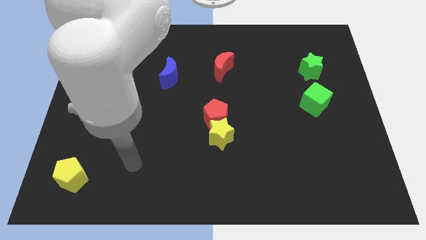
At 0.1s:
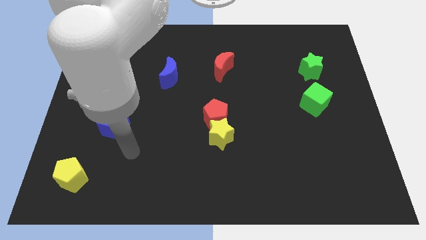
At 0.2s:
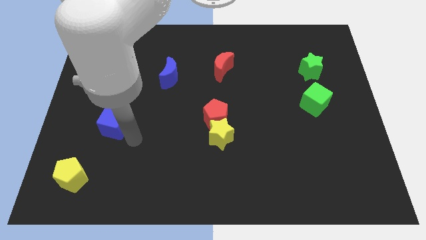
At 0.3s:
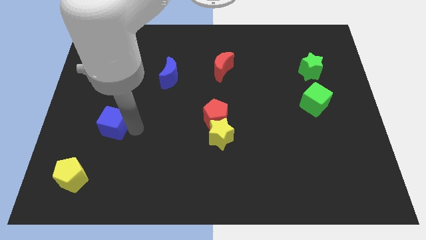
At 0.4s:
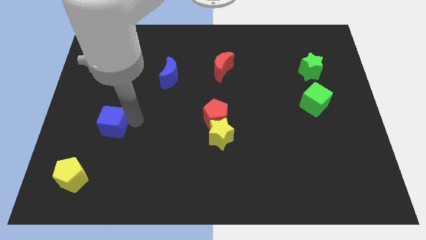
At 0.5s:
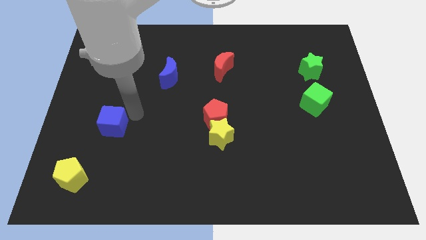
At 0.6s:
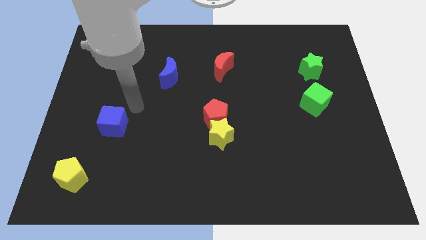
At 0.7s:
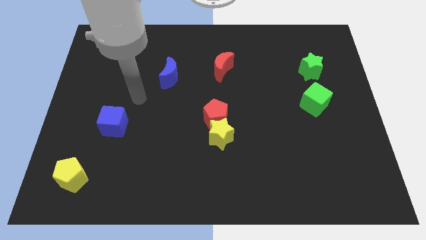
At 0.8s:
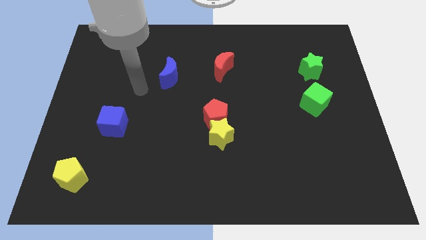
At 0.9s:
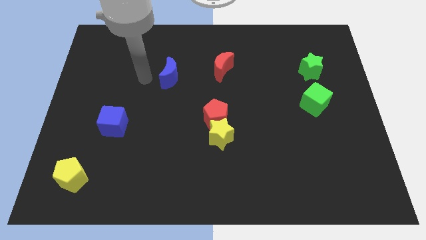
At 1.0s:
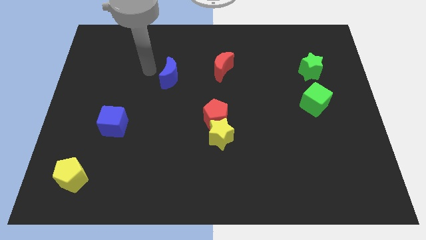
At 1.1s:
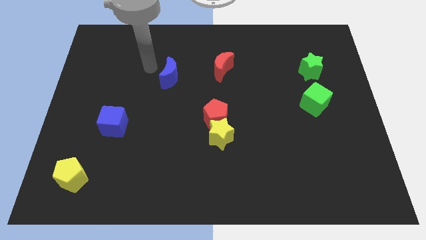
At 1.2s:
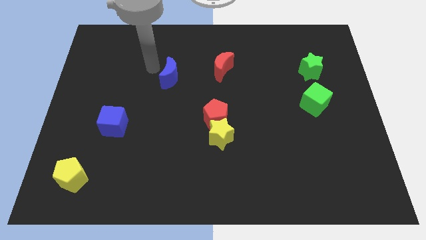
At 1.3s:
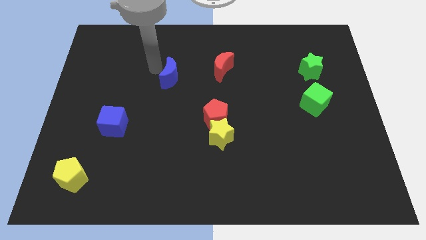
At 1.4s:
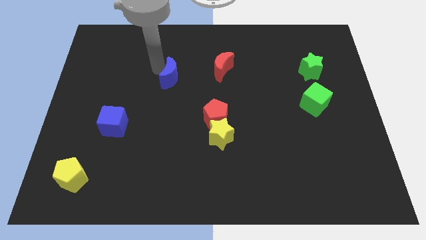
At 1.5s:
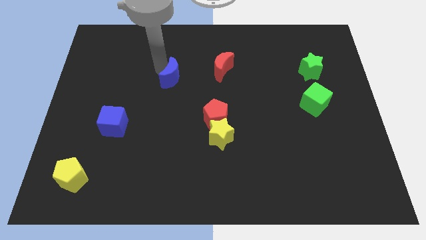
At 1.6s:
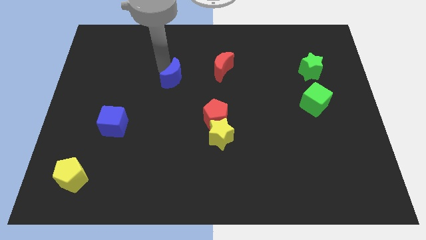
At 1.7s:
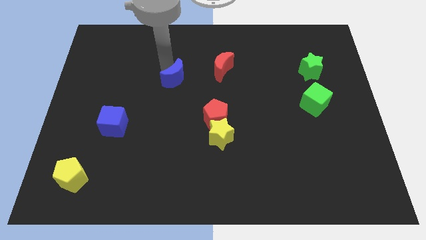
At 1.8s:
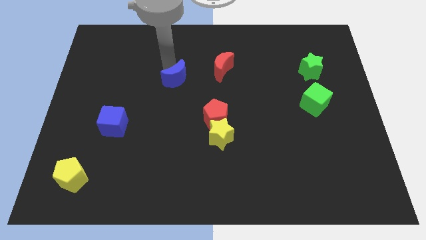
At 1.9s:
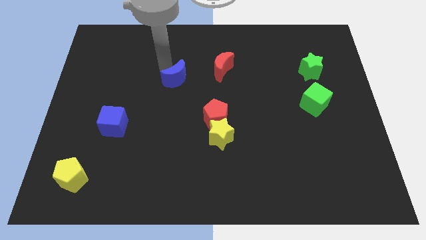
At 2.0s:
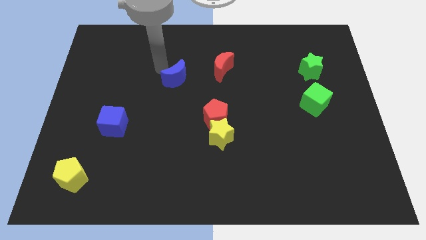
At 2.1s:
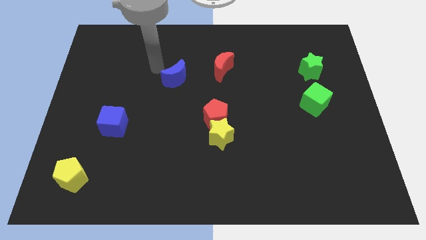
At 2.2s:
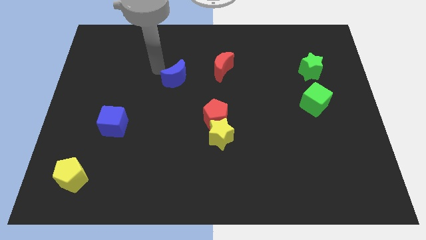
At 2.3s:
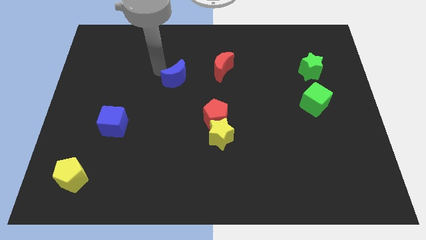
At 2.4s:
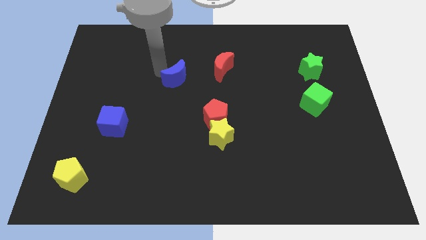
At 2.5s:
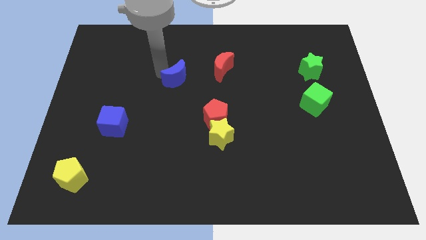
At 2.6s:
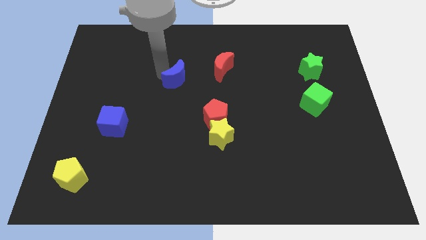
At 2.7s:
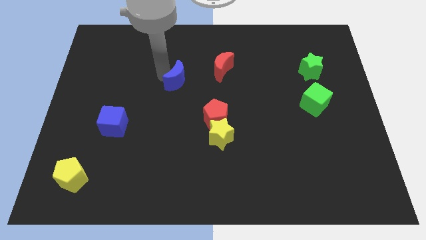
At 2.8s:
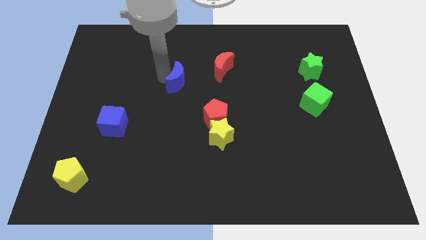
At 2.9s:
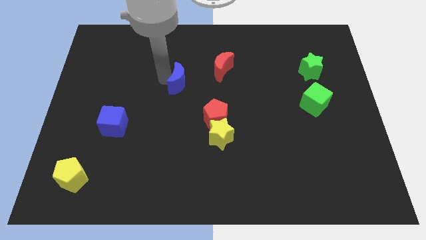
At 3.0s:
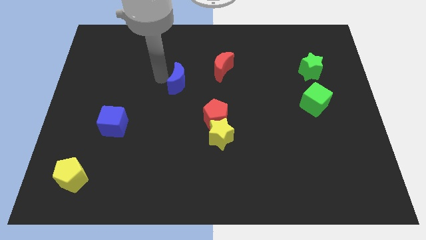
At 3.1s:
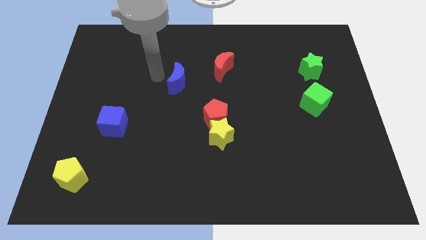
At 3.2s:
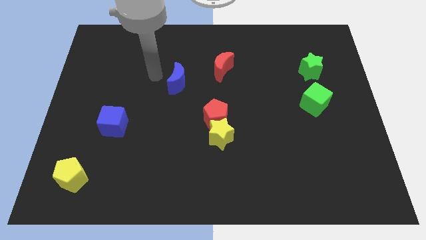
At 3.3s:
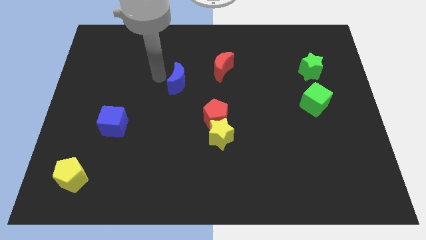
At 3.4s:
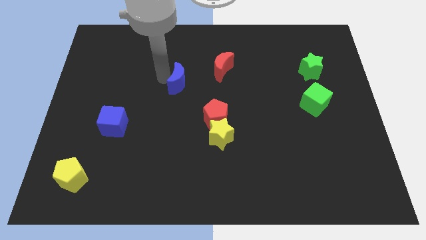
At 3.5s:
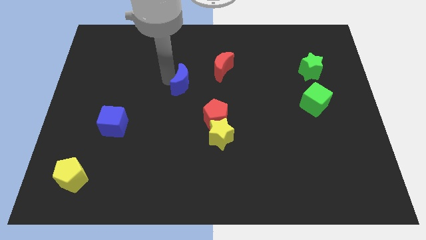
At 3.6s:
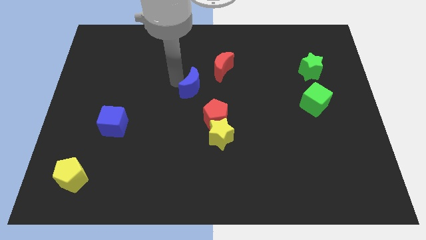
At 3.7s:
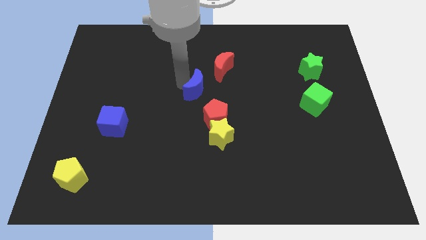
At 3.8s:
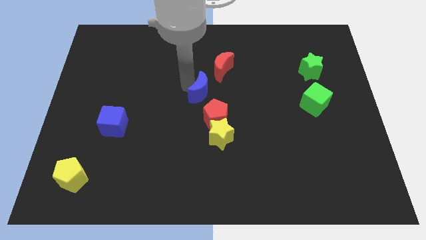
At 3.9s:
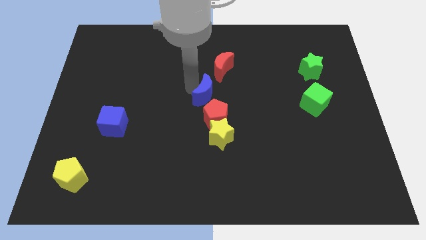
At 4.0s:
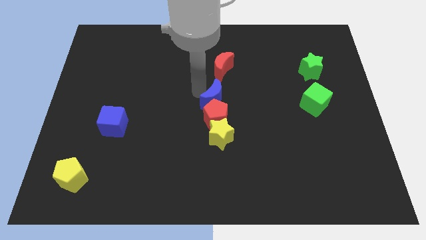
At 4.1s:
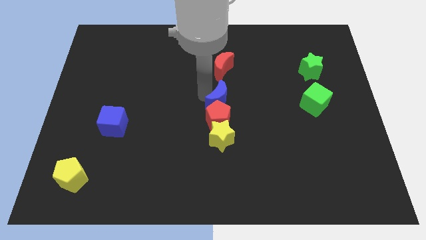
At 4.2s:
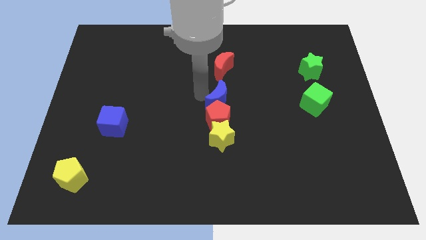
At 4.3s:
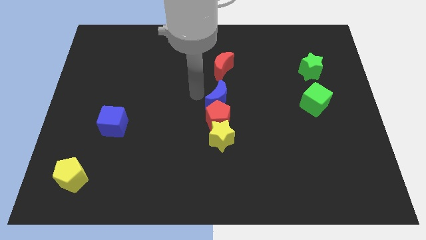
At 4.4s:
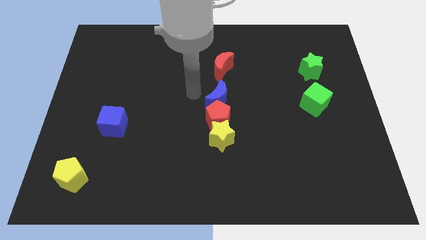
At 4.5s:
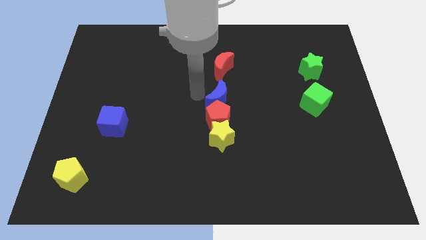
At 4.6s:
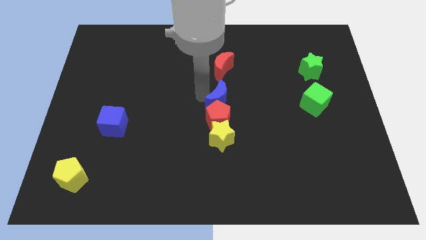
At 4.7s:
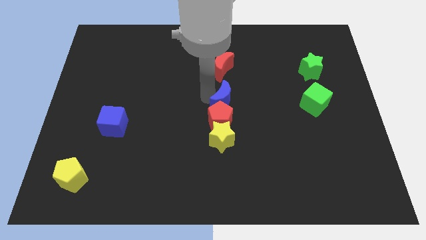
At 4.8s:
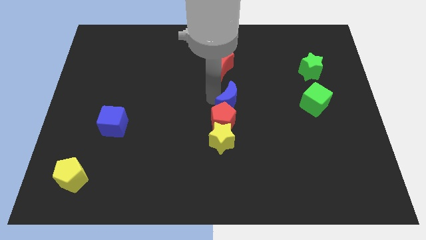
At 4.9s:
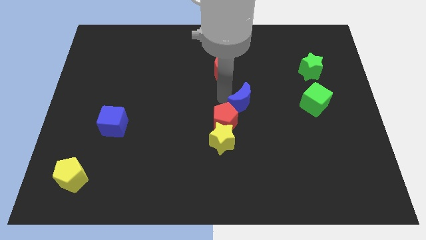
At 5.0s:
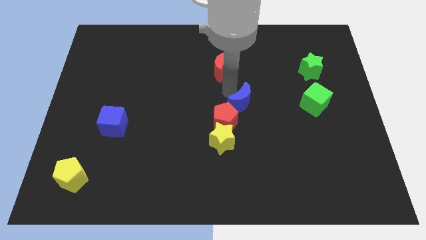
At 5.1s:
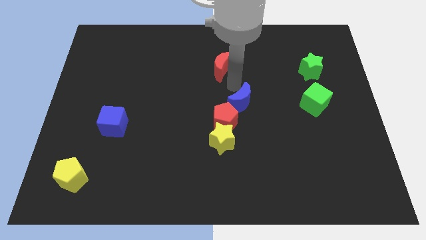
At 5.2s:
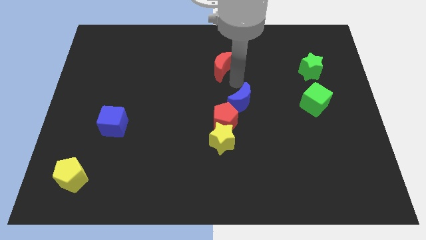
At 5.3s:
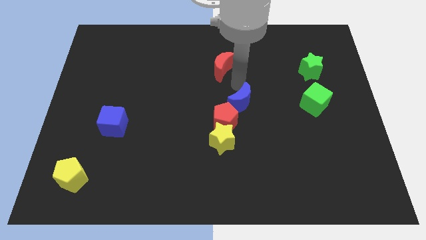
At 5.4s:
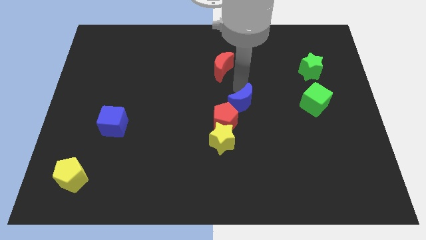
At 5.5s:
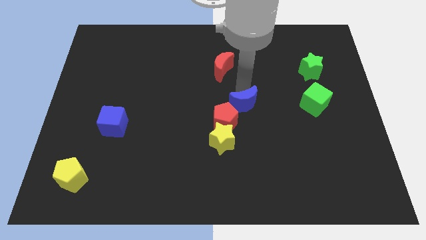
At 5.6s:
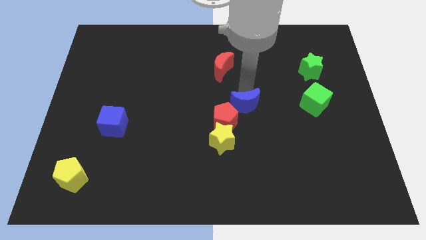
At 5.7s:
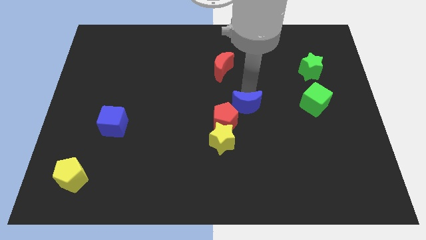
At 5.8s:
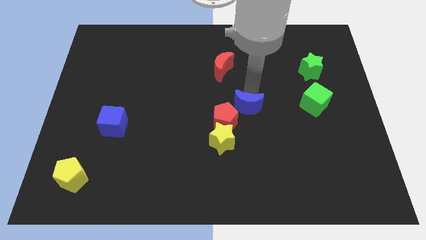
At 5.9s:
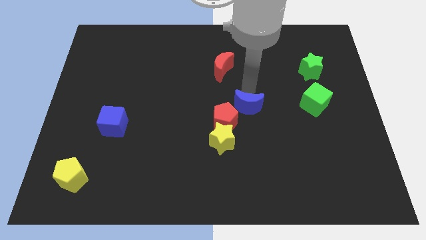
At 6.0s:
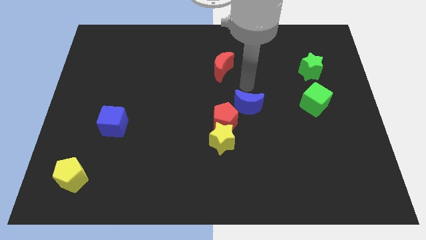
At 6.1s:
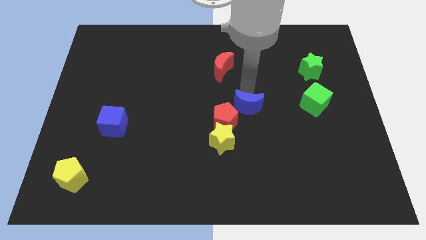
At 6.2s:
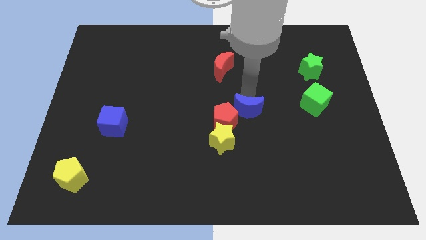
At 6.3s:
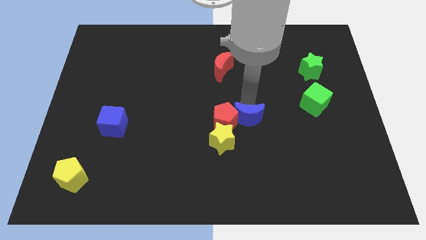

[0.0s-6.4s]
put the blue moon to the bottom right side of the red pentagon

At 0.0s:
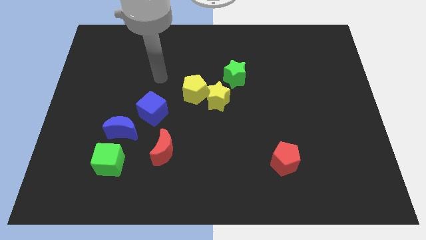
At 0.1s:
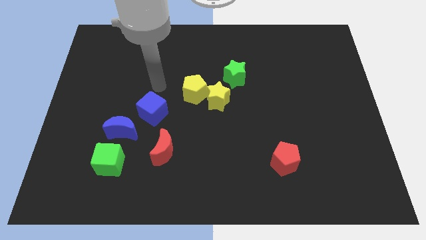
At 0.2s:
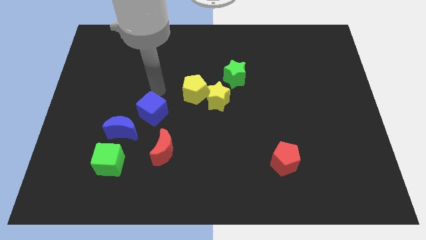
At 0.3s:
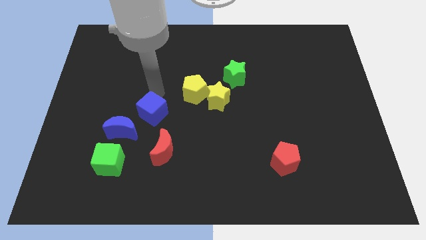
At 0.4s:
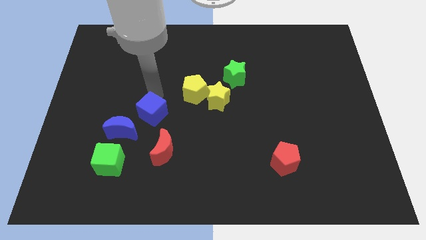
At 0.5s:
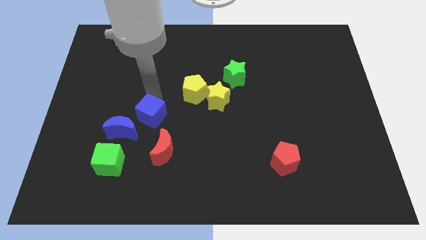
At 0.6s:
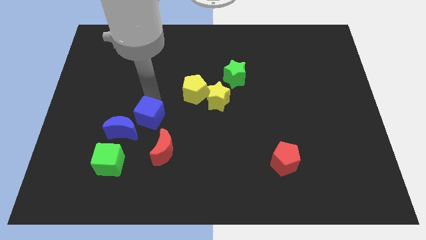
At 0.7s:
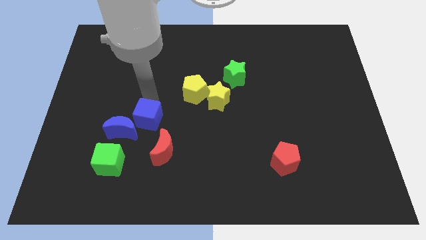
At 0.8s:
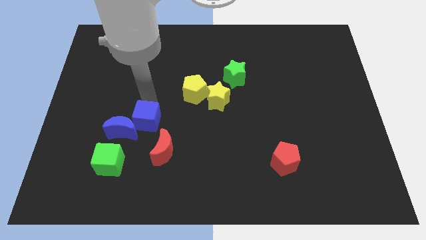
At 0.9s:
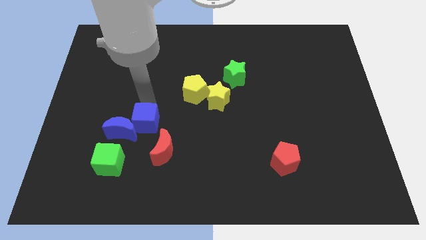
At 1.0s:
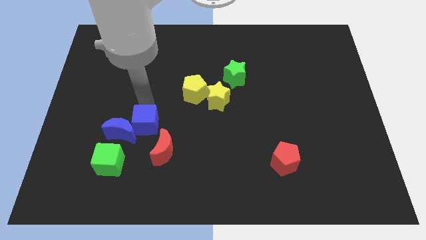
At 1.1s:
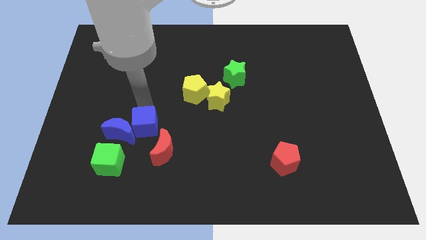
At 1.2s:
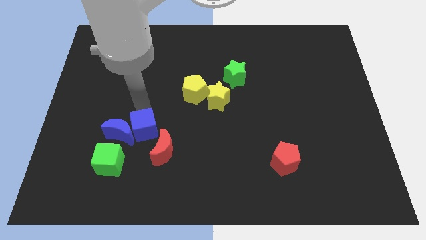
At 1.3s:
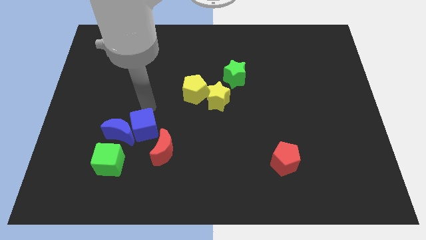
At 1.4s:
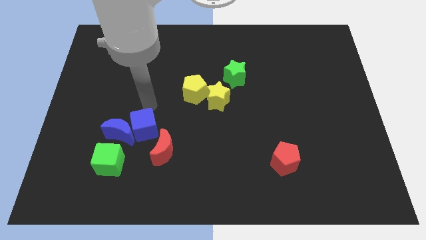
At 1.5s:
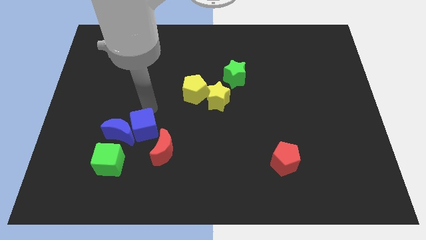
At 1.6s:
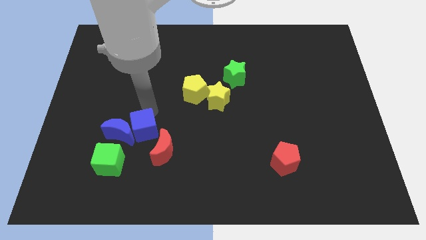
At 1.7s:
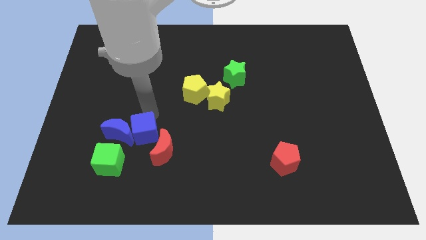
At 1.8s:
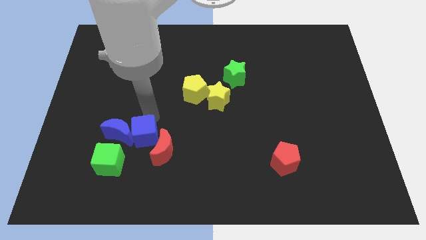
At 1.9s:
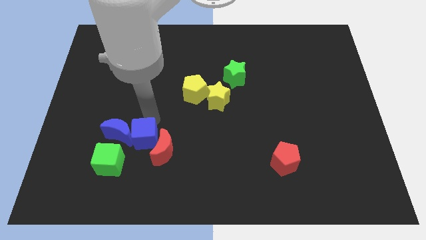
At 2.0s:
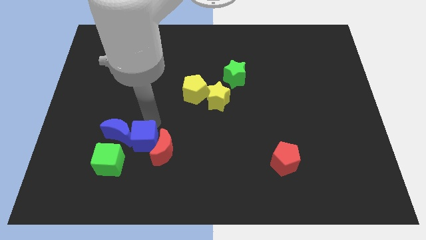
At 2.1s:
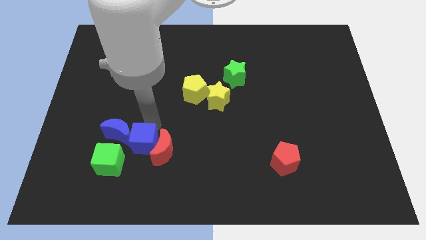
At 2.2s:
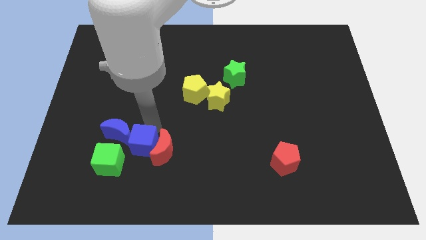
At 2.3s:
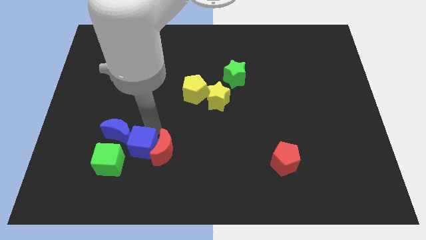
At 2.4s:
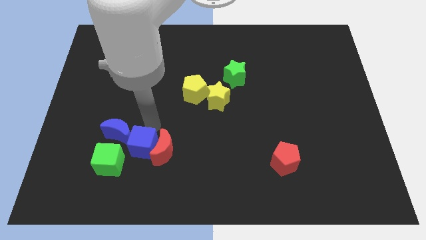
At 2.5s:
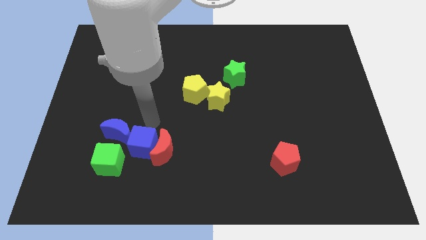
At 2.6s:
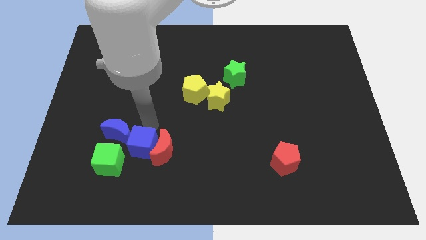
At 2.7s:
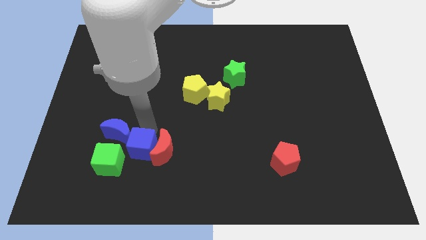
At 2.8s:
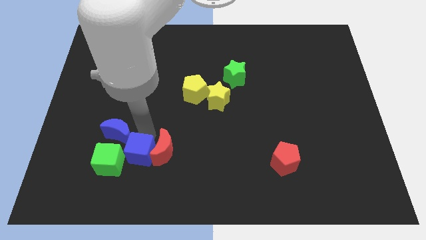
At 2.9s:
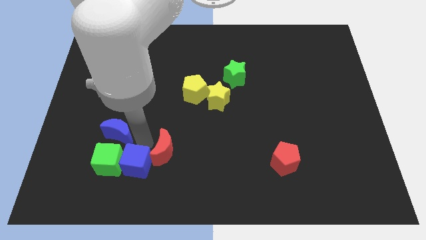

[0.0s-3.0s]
slide the blue cube to the bottom right side of the green cube
